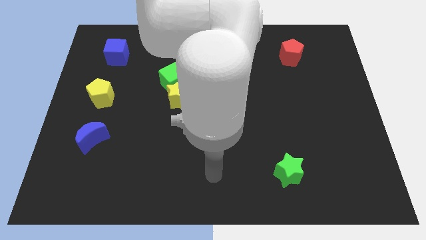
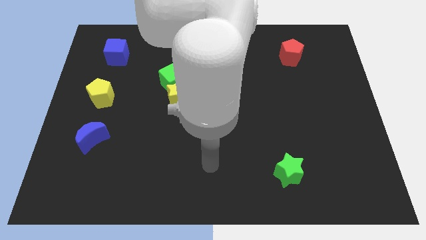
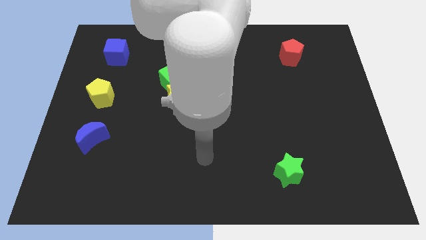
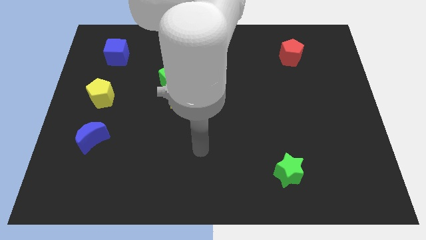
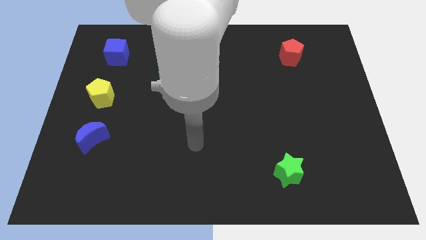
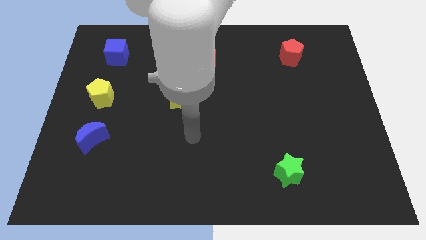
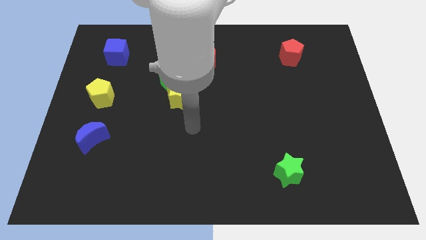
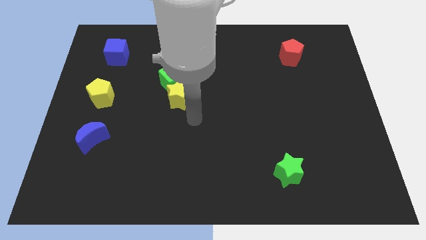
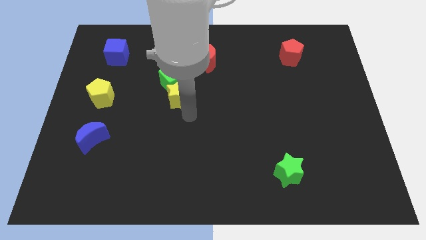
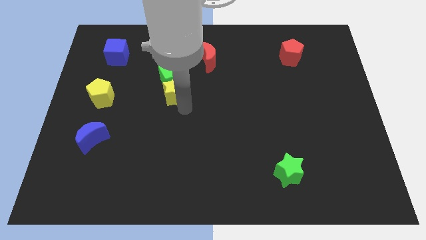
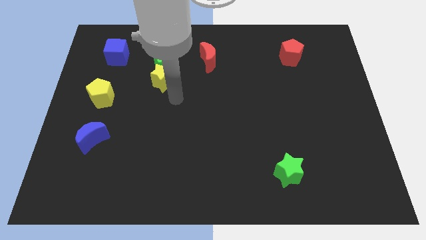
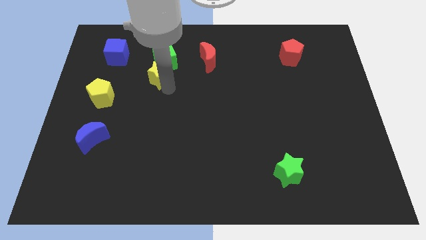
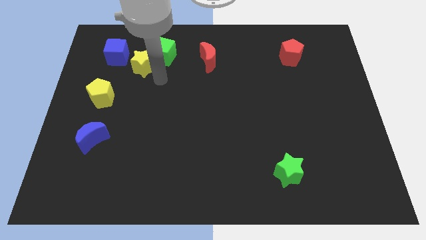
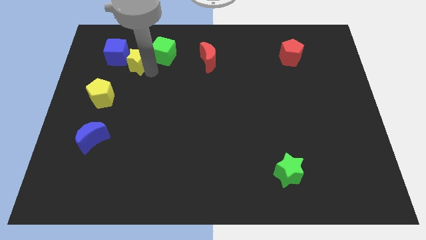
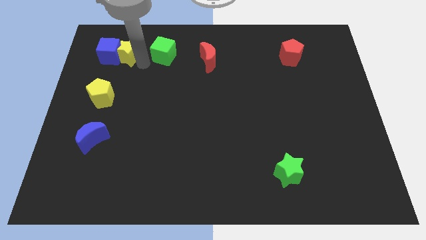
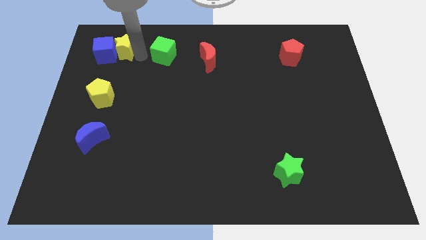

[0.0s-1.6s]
move the green cube away from the yellow star

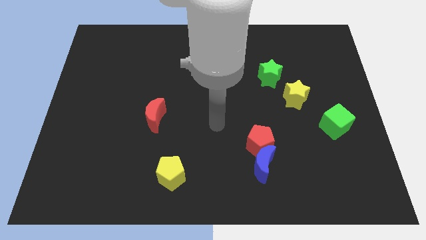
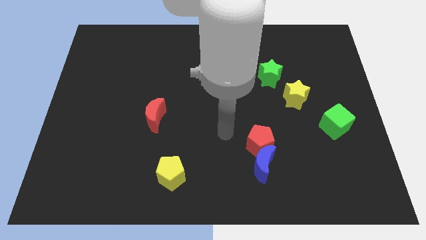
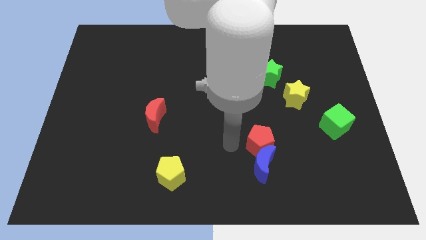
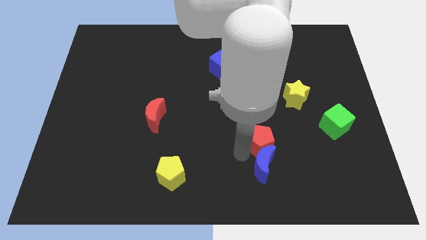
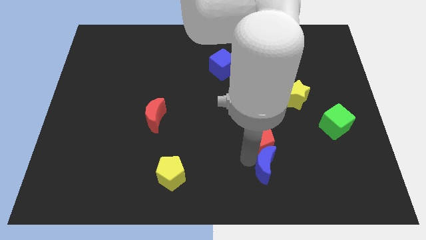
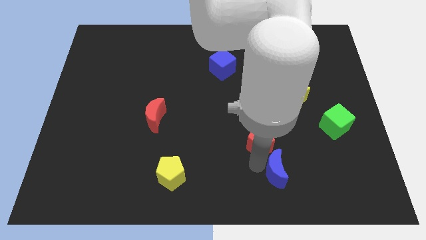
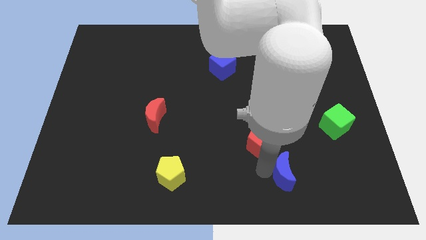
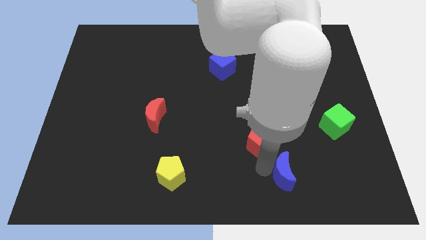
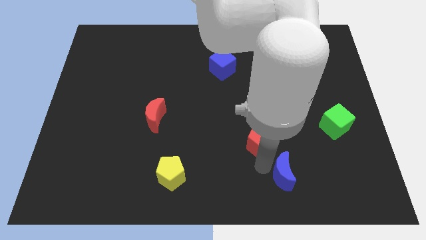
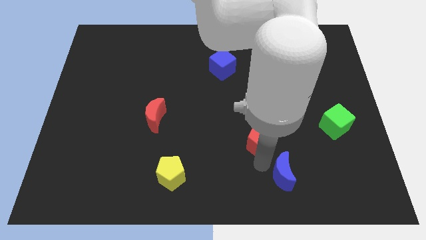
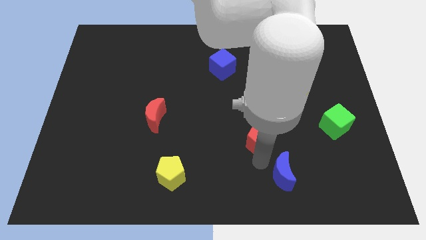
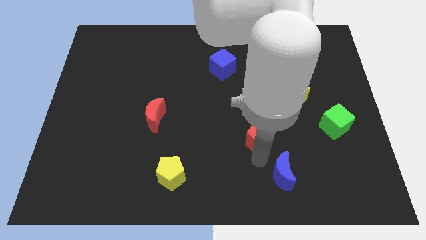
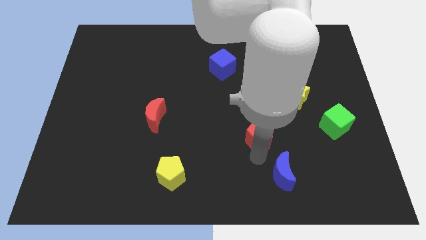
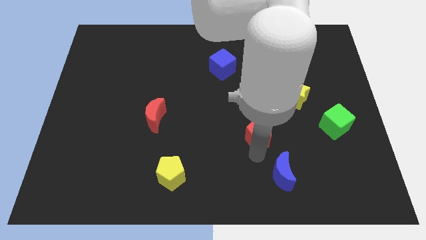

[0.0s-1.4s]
move the red pentagon away from the blue moon

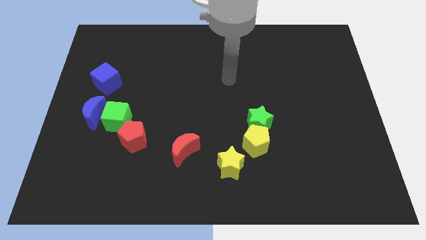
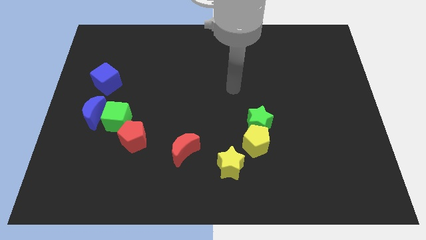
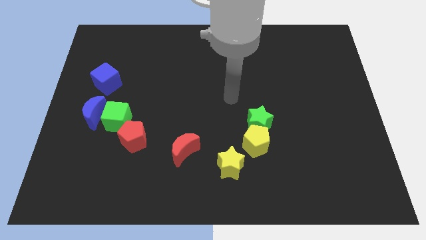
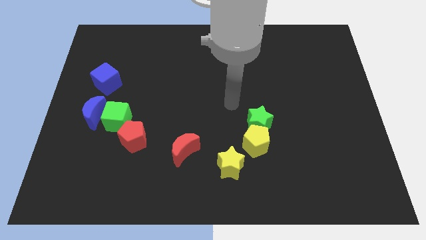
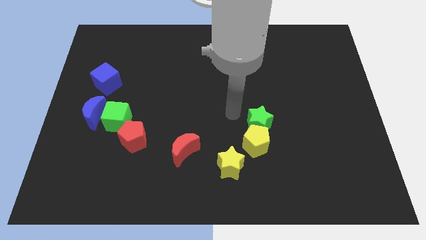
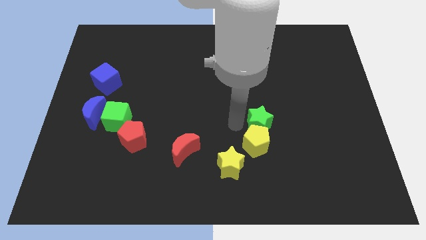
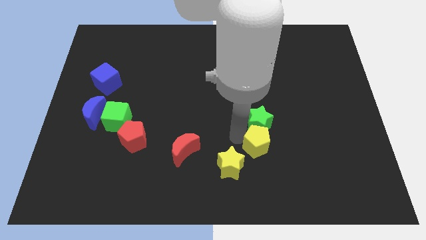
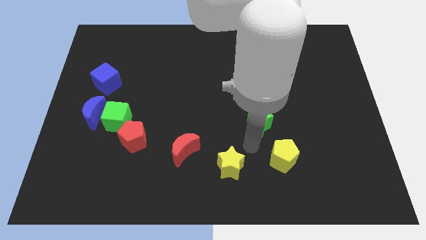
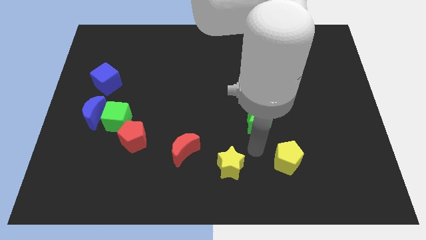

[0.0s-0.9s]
pull the green star apart from the yellow pentagon

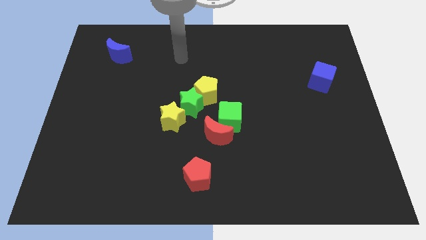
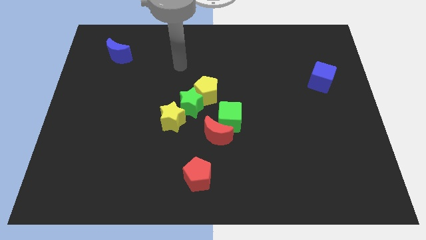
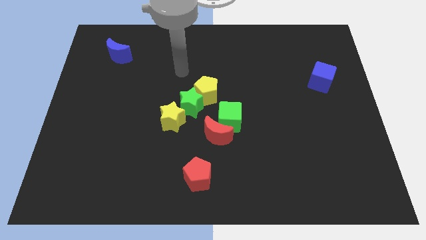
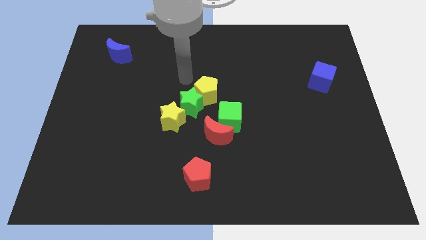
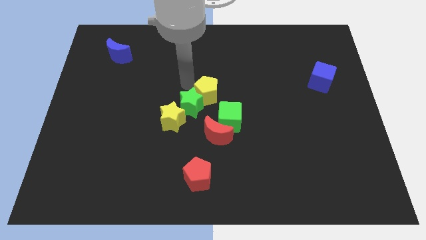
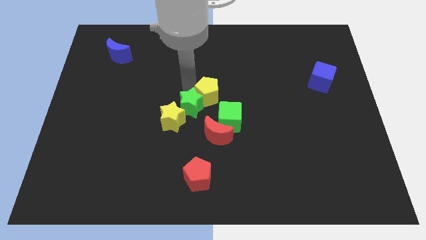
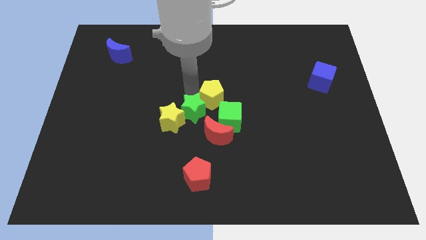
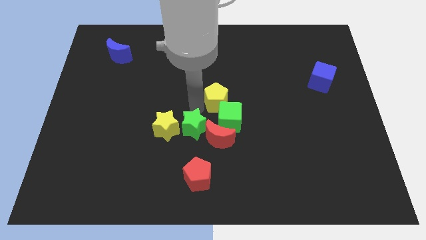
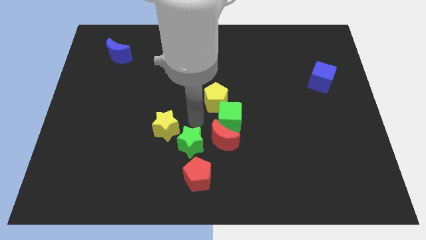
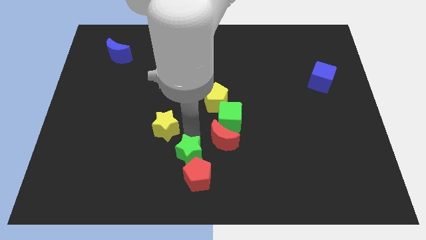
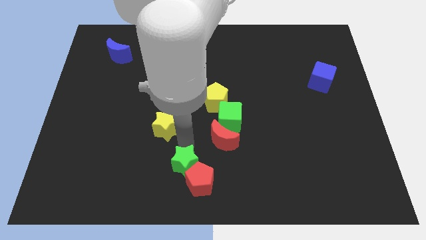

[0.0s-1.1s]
move the yellow star away from the green star

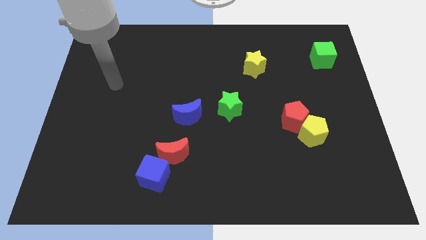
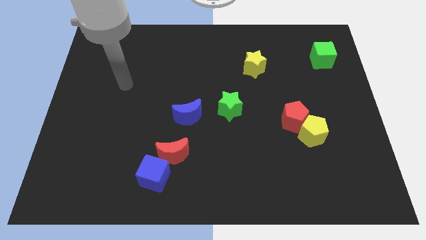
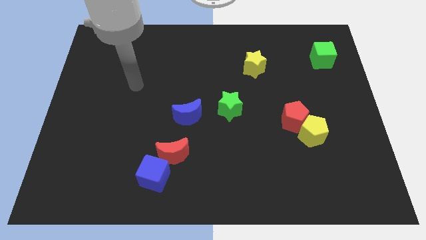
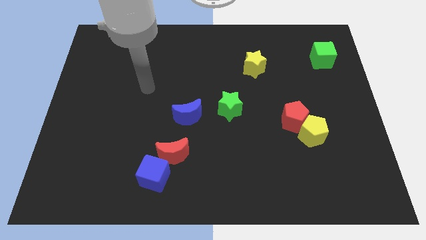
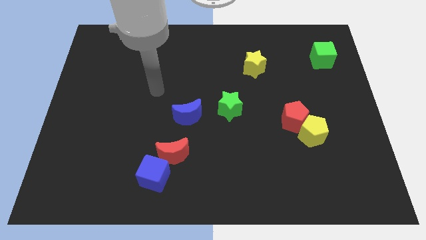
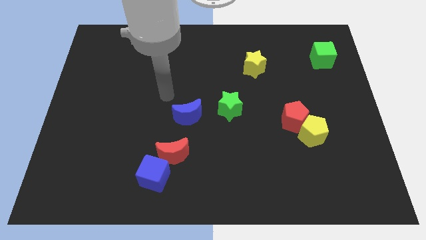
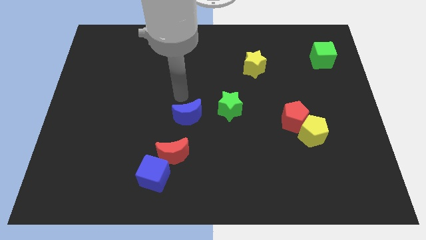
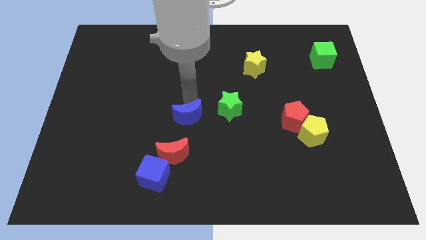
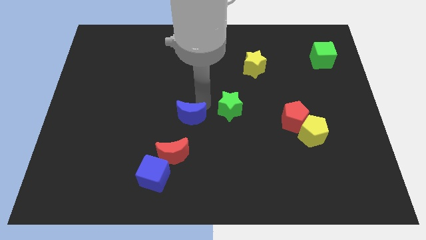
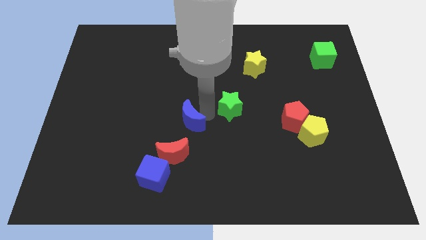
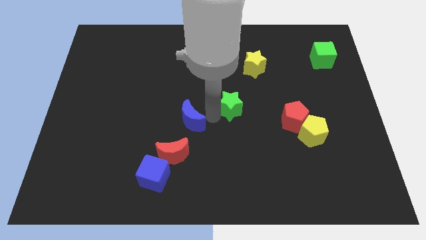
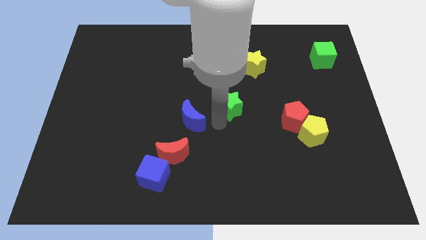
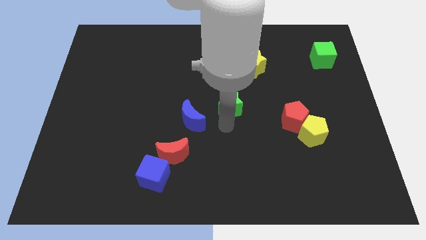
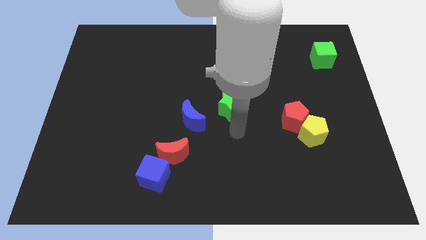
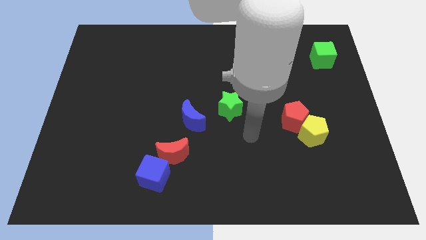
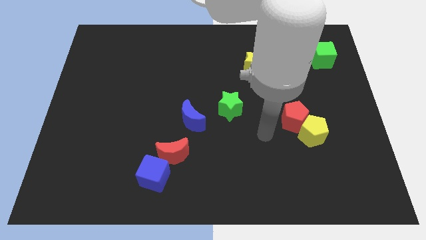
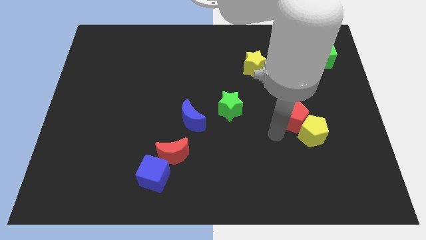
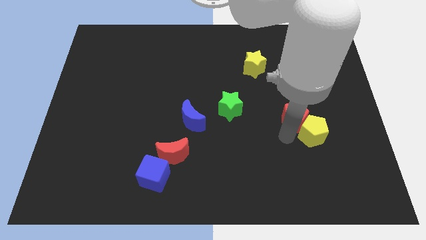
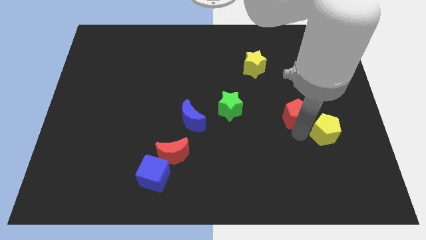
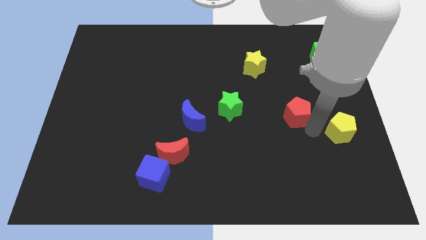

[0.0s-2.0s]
pull the red pentagon apart from the yellow pentagon

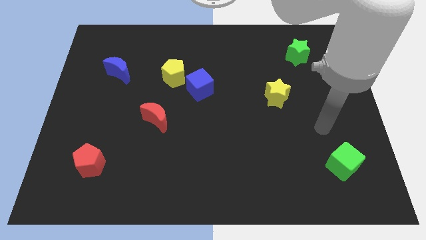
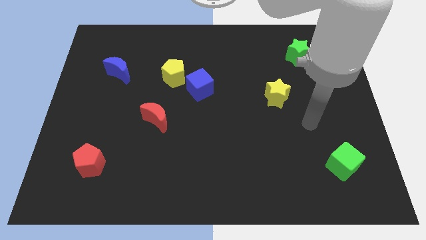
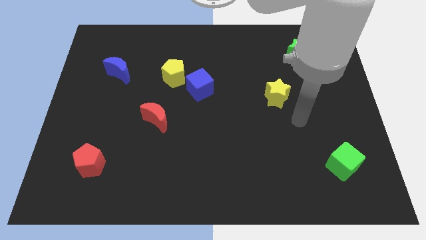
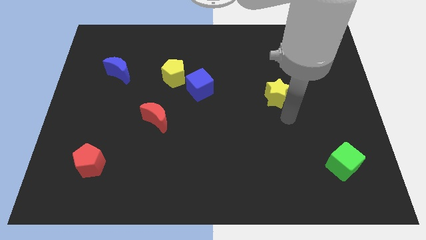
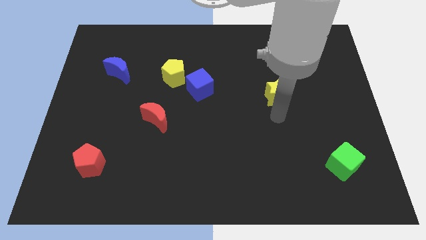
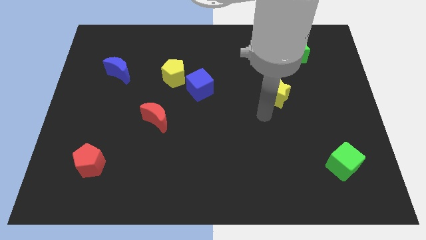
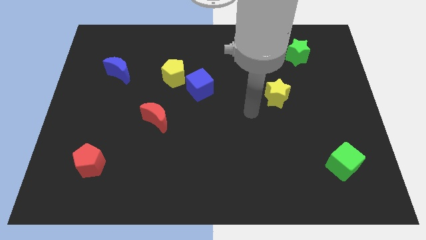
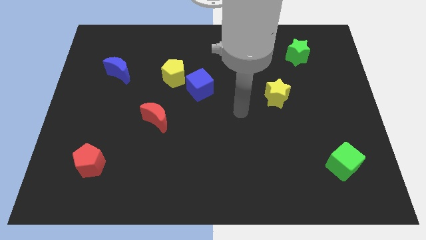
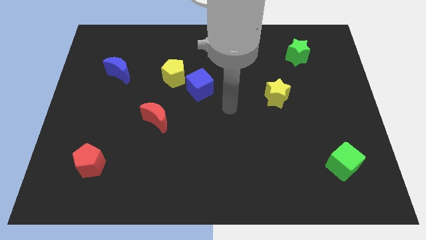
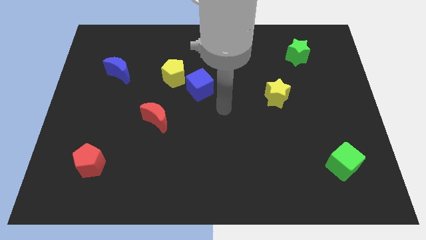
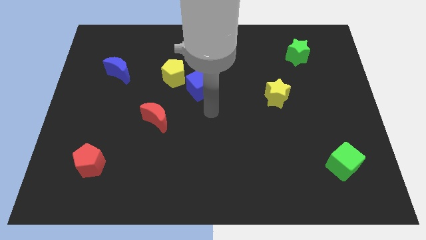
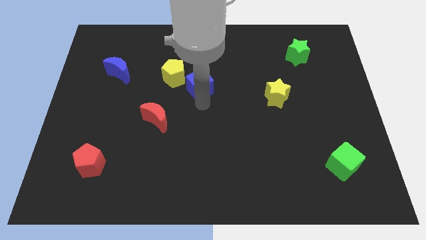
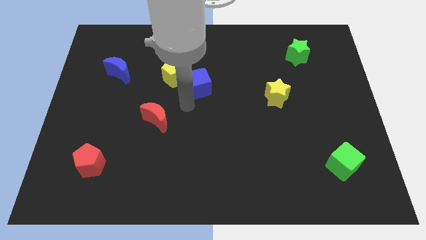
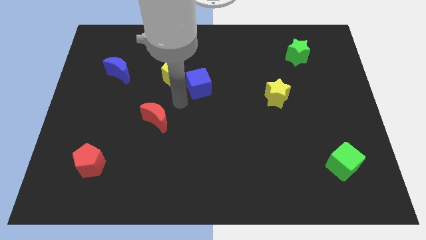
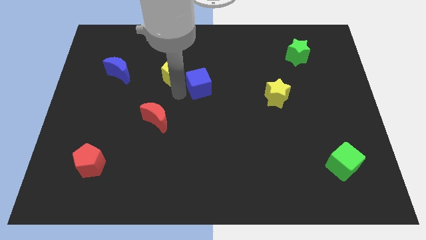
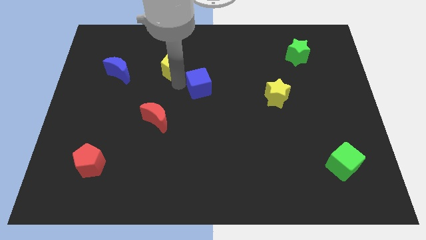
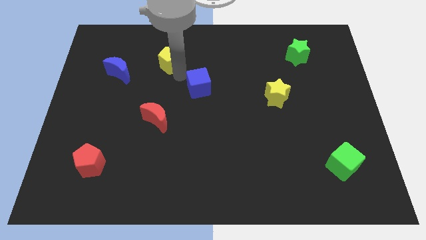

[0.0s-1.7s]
pull the blue cube apart from the yellow pentagon

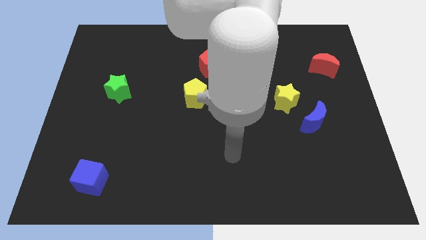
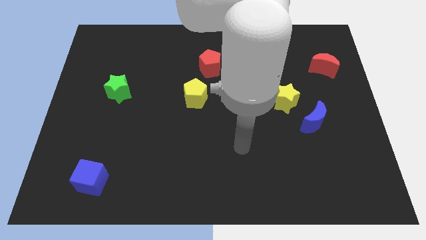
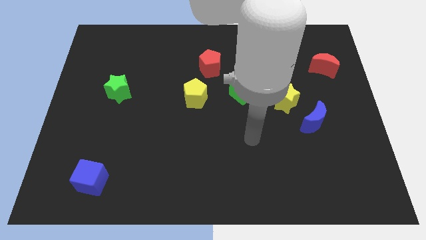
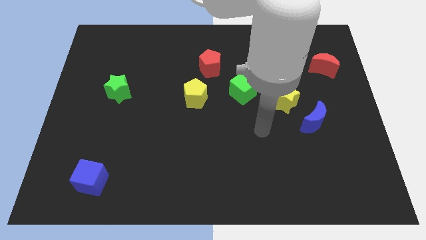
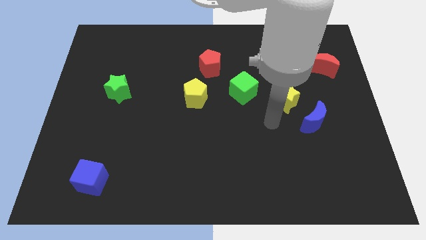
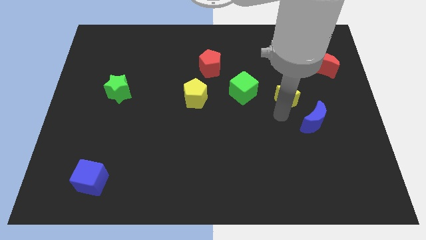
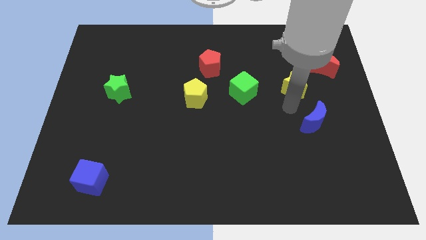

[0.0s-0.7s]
move the blue moon away from the yellow star
